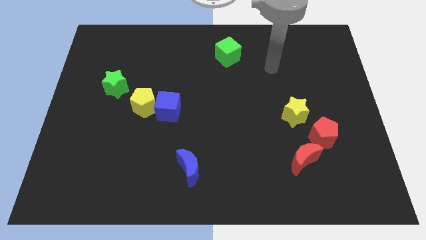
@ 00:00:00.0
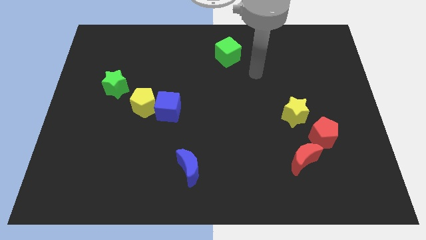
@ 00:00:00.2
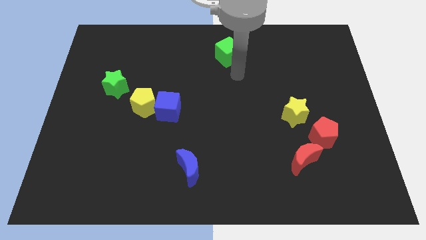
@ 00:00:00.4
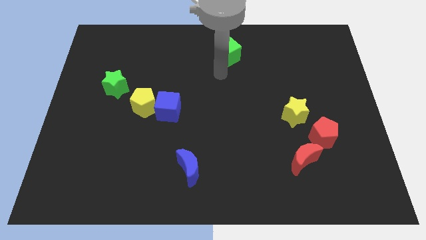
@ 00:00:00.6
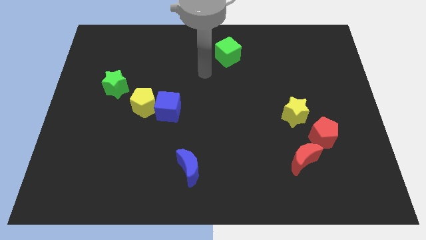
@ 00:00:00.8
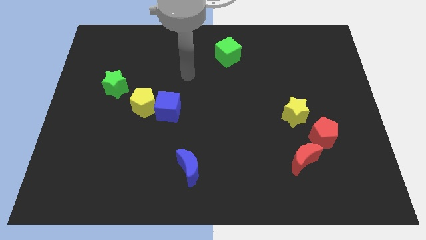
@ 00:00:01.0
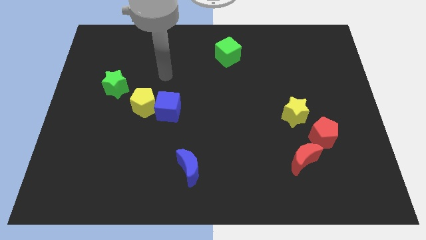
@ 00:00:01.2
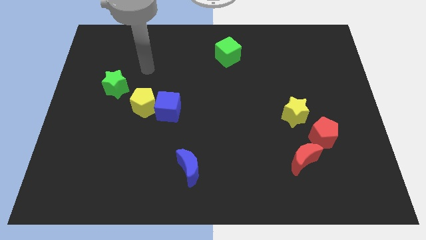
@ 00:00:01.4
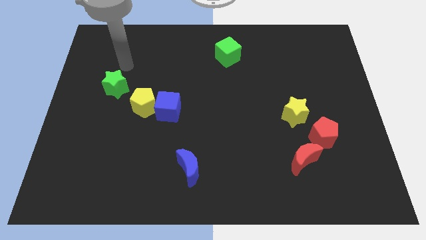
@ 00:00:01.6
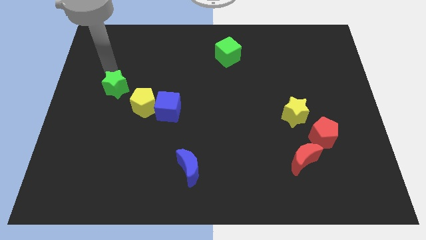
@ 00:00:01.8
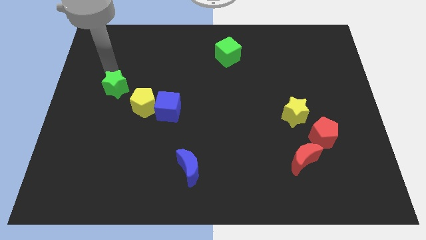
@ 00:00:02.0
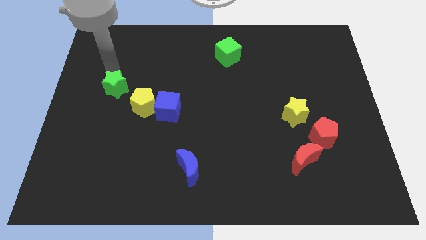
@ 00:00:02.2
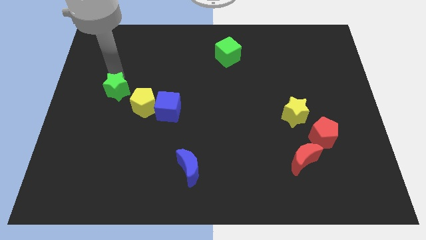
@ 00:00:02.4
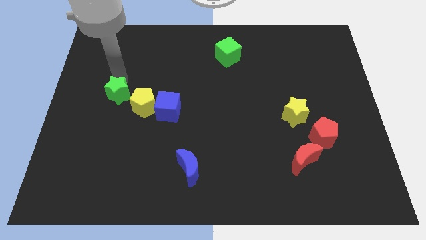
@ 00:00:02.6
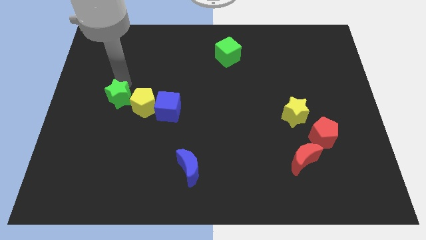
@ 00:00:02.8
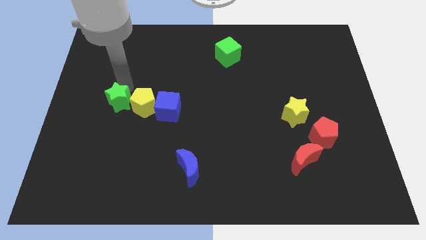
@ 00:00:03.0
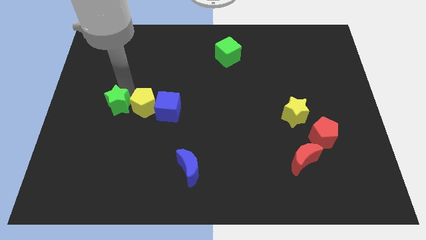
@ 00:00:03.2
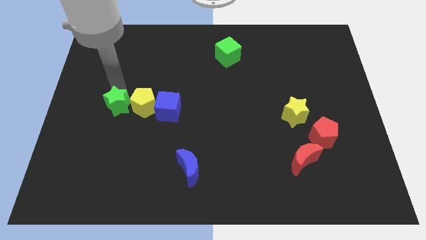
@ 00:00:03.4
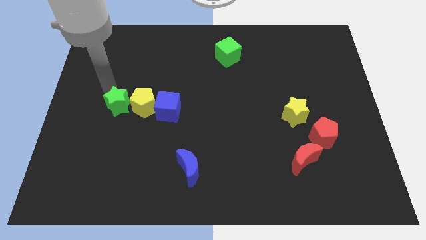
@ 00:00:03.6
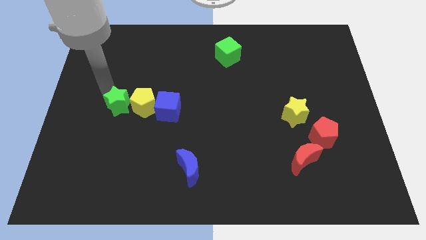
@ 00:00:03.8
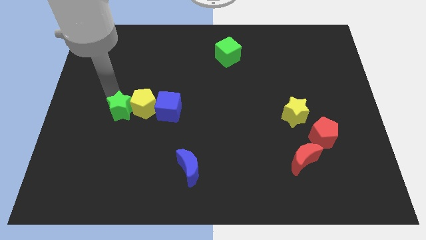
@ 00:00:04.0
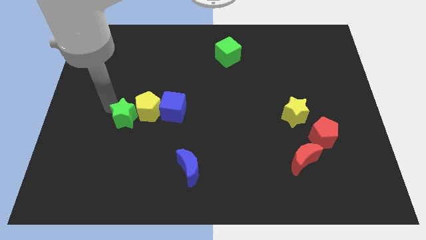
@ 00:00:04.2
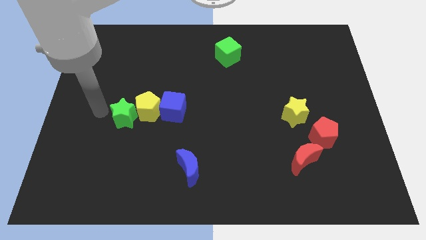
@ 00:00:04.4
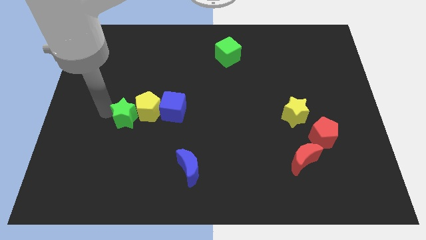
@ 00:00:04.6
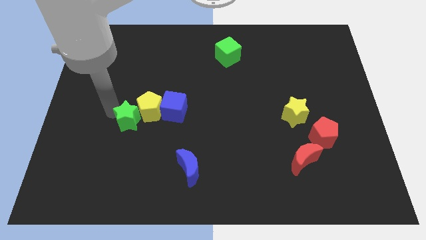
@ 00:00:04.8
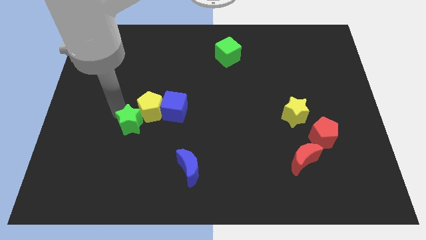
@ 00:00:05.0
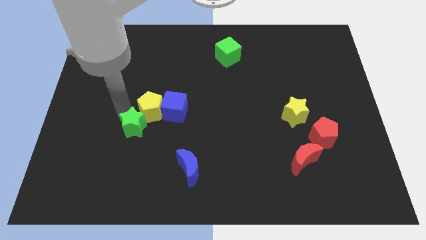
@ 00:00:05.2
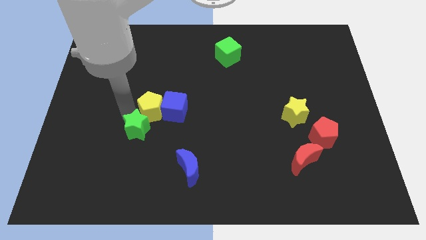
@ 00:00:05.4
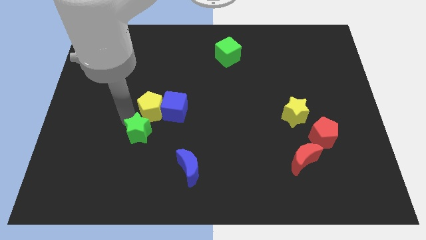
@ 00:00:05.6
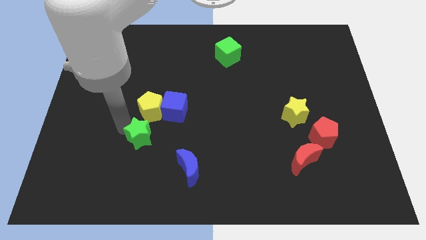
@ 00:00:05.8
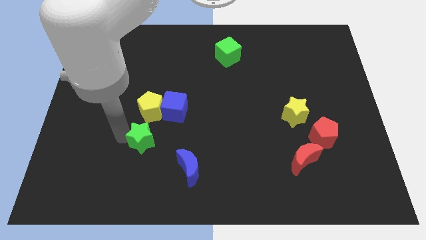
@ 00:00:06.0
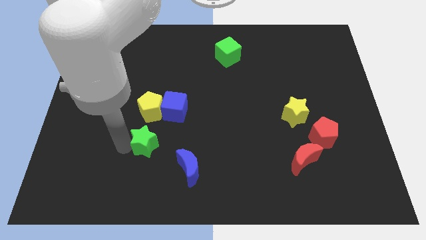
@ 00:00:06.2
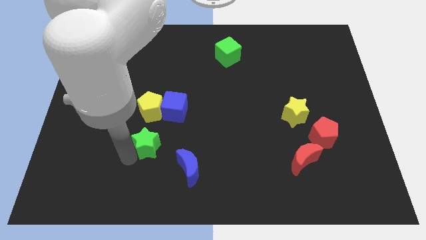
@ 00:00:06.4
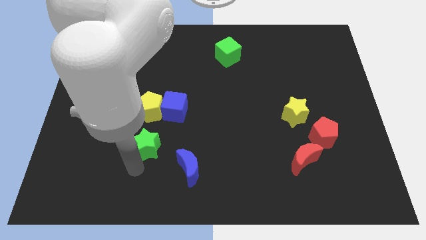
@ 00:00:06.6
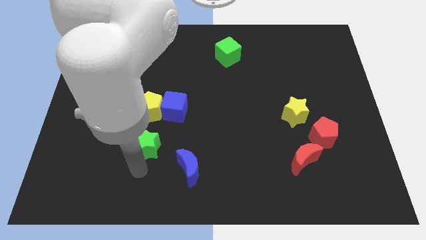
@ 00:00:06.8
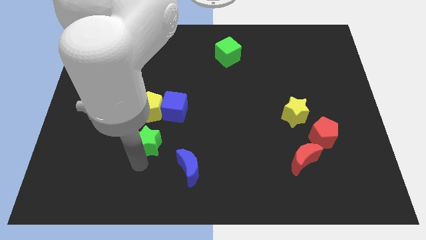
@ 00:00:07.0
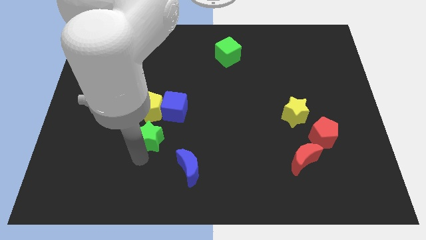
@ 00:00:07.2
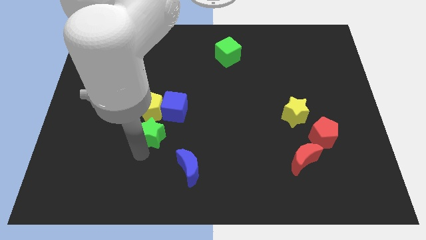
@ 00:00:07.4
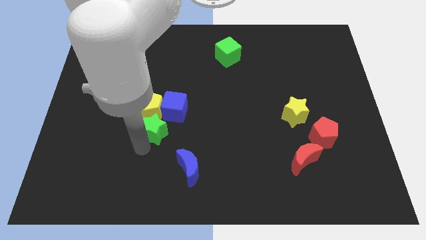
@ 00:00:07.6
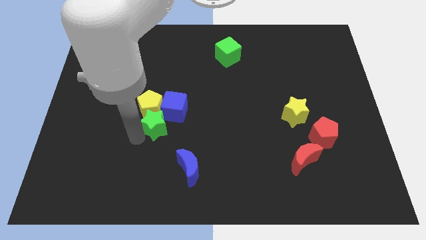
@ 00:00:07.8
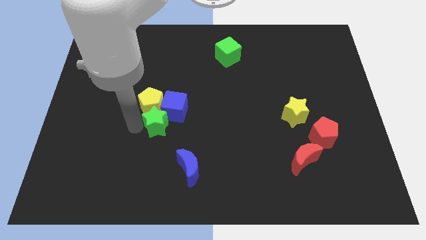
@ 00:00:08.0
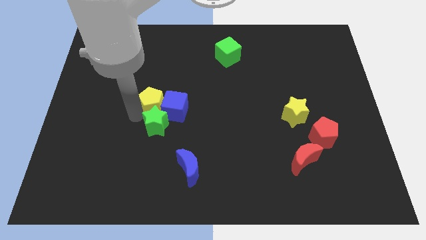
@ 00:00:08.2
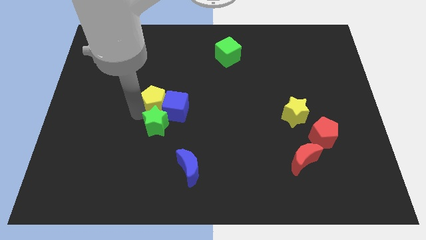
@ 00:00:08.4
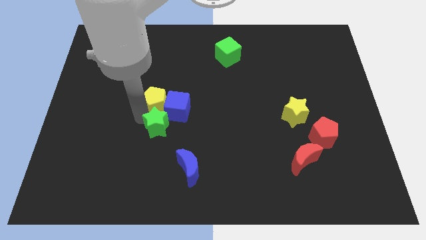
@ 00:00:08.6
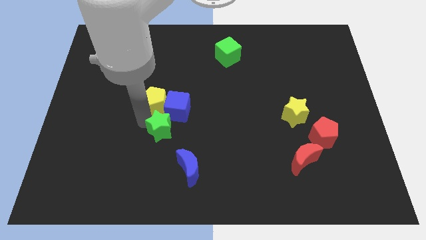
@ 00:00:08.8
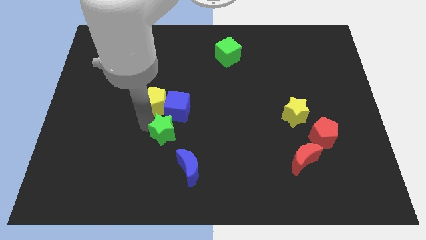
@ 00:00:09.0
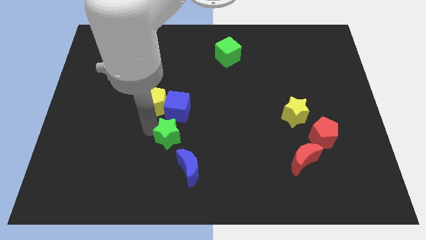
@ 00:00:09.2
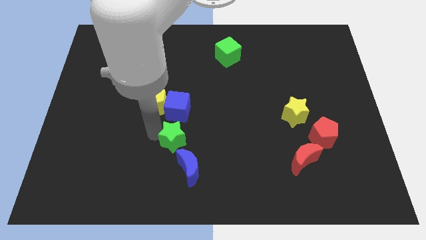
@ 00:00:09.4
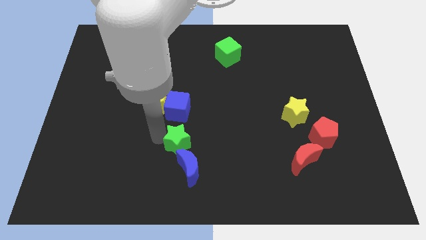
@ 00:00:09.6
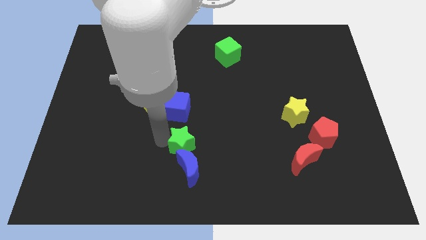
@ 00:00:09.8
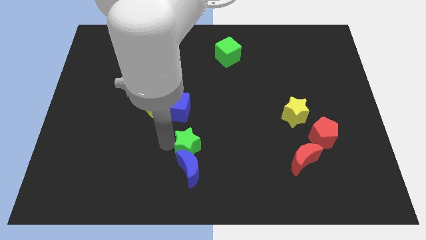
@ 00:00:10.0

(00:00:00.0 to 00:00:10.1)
move the green star to the top right of the blue moon

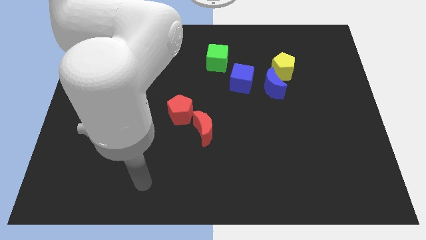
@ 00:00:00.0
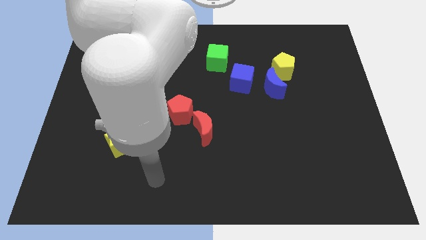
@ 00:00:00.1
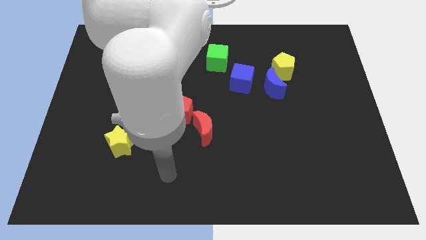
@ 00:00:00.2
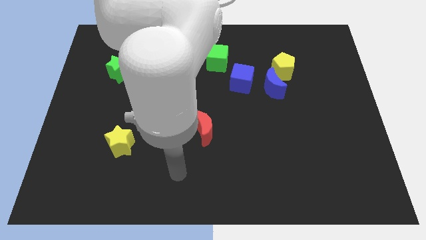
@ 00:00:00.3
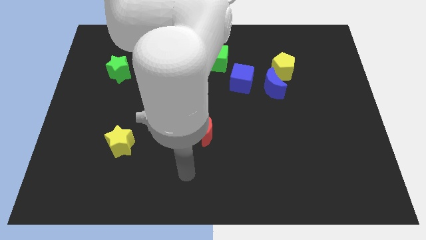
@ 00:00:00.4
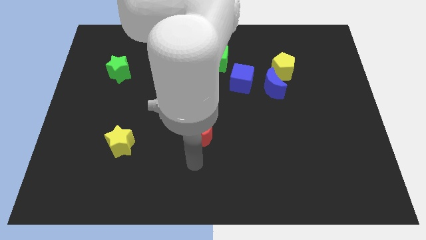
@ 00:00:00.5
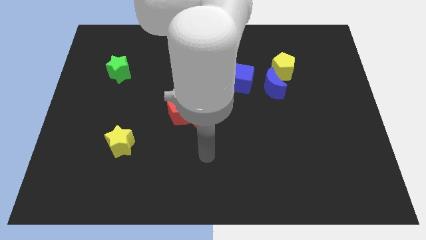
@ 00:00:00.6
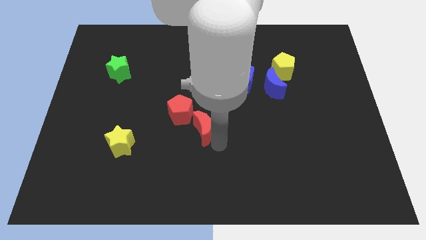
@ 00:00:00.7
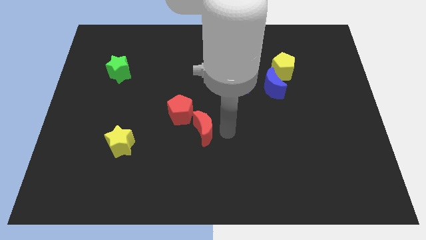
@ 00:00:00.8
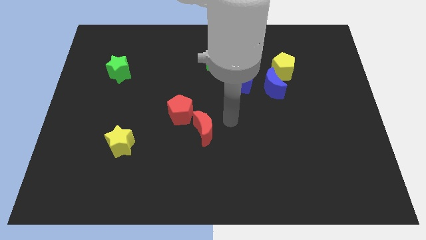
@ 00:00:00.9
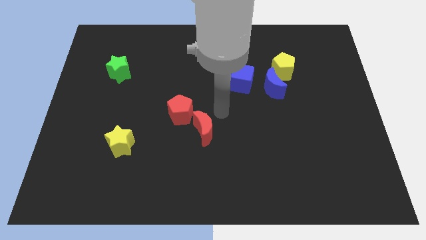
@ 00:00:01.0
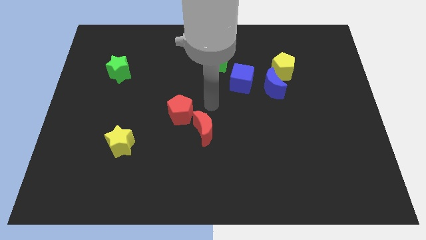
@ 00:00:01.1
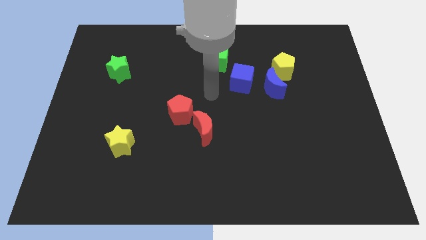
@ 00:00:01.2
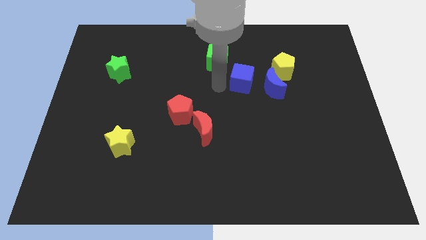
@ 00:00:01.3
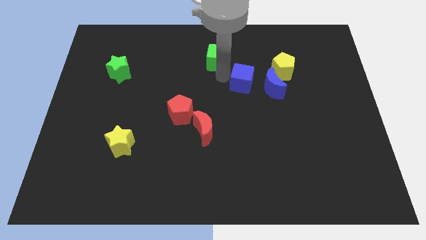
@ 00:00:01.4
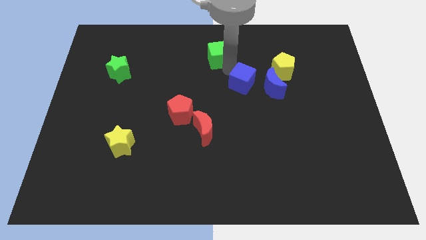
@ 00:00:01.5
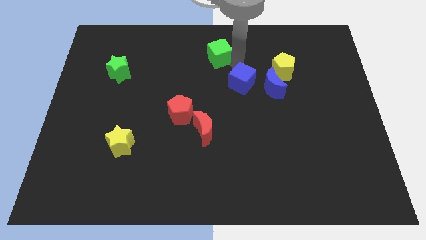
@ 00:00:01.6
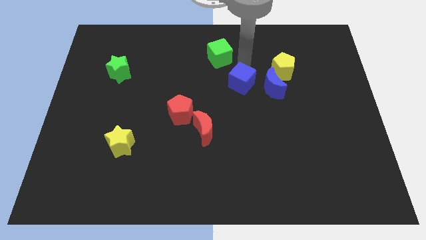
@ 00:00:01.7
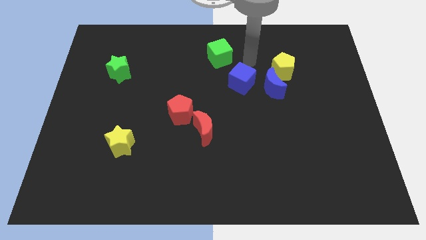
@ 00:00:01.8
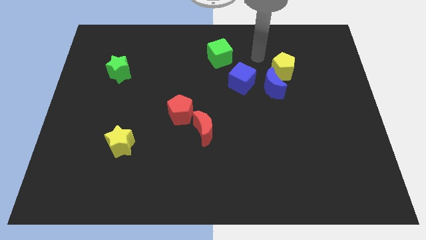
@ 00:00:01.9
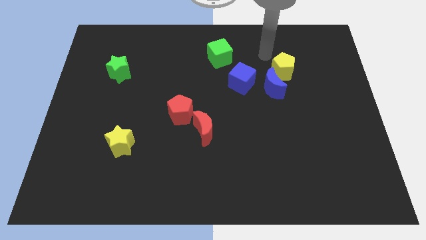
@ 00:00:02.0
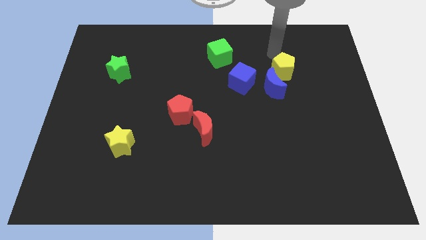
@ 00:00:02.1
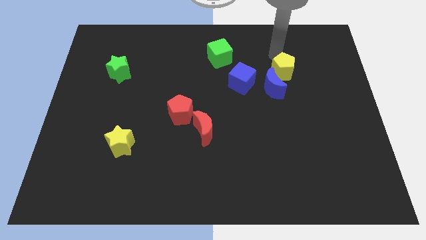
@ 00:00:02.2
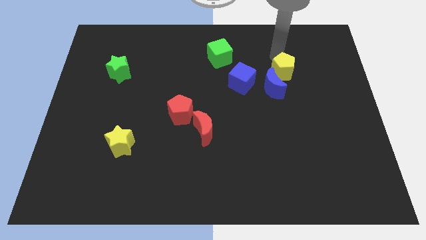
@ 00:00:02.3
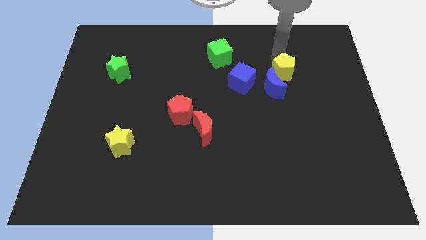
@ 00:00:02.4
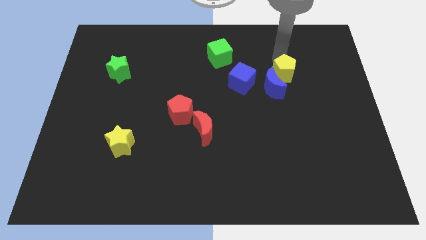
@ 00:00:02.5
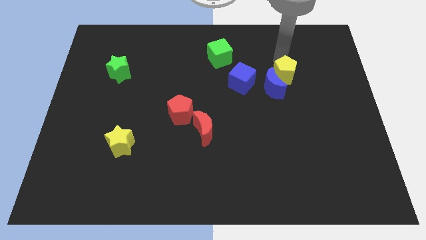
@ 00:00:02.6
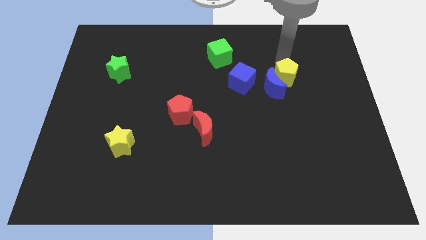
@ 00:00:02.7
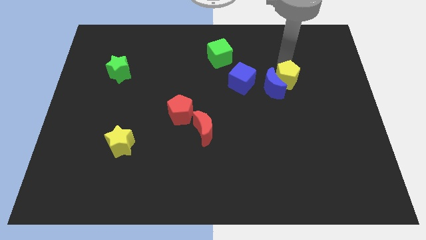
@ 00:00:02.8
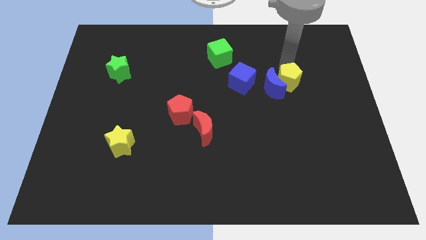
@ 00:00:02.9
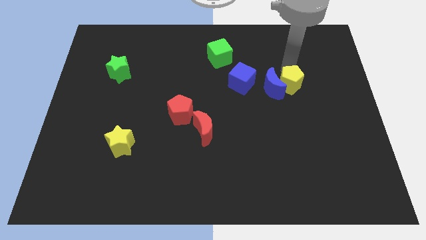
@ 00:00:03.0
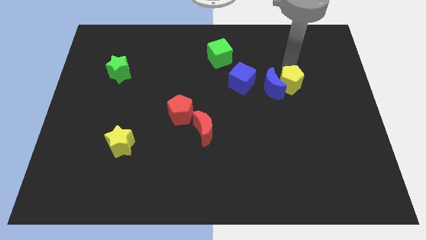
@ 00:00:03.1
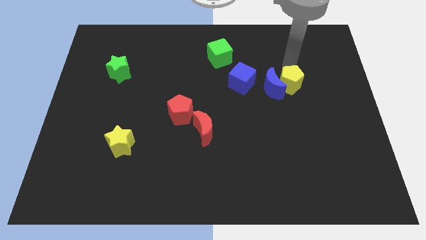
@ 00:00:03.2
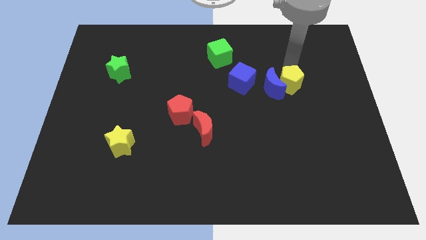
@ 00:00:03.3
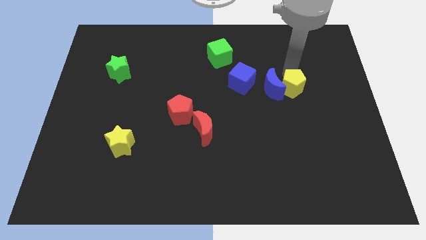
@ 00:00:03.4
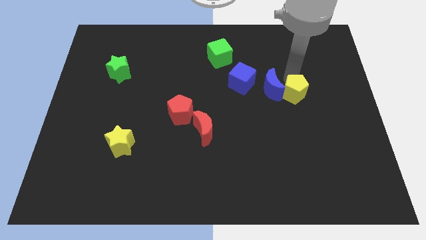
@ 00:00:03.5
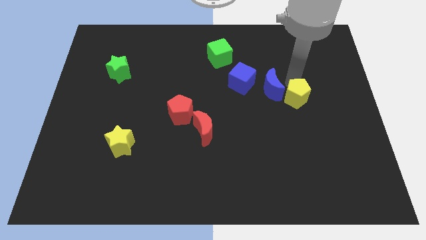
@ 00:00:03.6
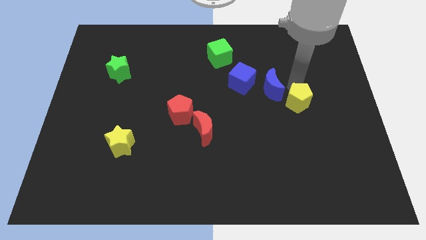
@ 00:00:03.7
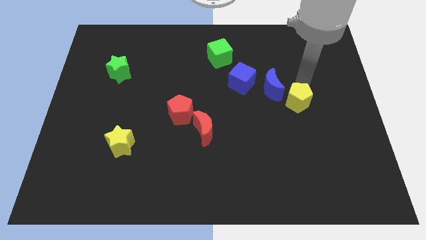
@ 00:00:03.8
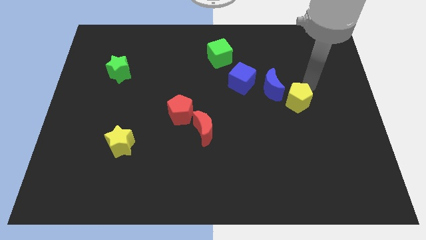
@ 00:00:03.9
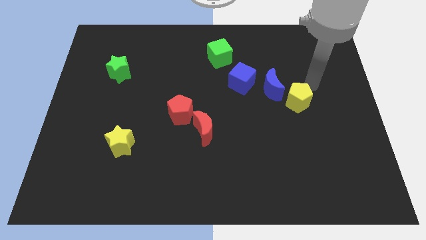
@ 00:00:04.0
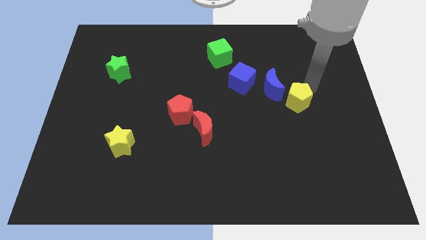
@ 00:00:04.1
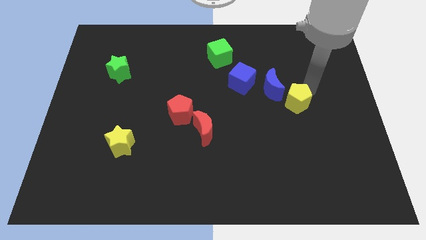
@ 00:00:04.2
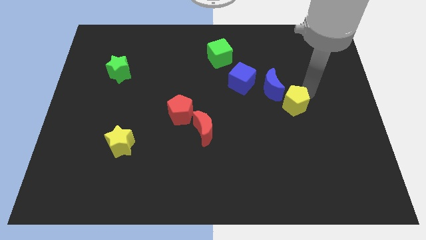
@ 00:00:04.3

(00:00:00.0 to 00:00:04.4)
push the yellow pentagon below the blue moon
